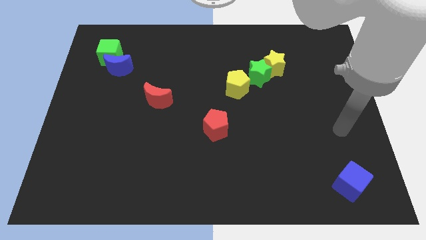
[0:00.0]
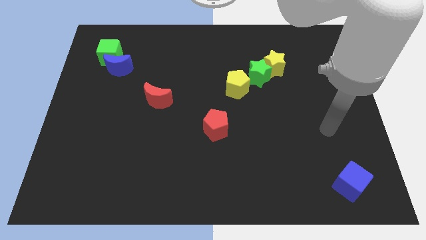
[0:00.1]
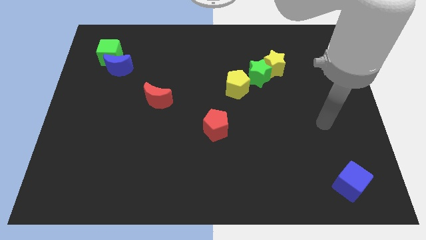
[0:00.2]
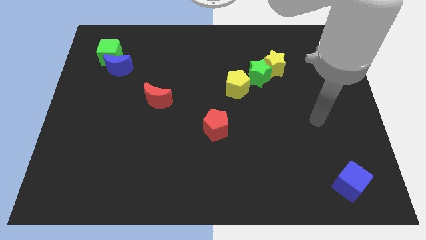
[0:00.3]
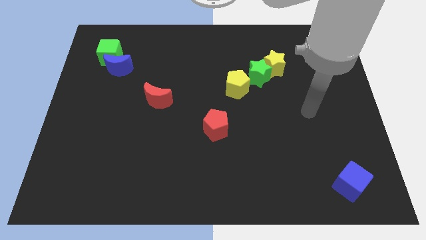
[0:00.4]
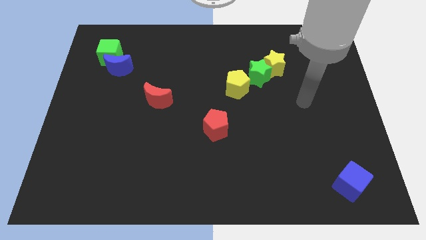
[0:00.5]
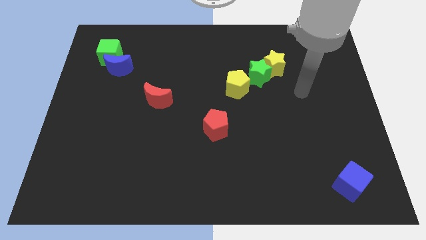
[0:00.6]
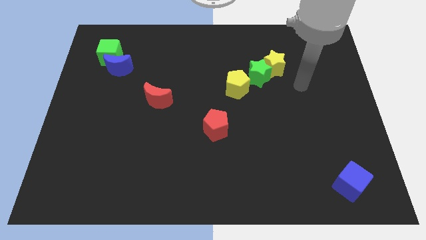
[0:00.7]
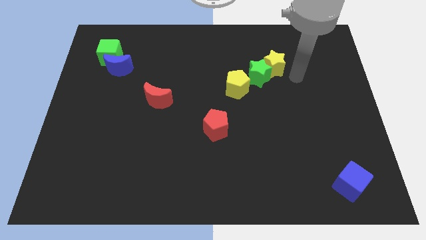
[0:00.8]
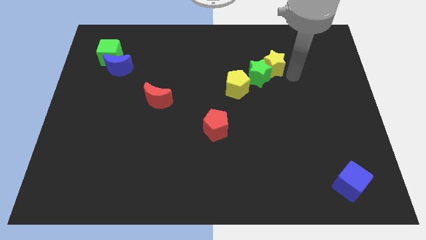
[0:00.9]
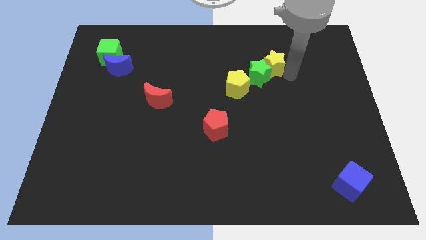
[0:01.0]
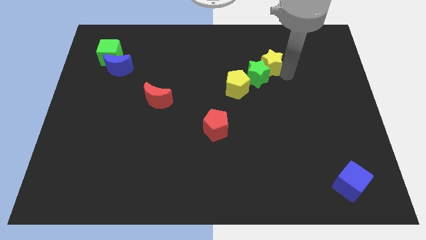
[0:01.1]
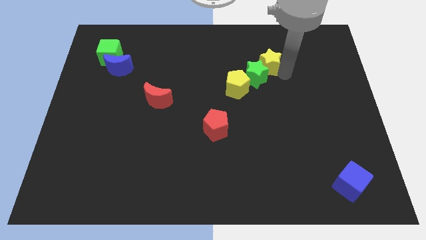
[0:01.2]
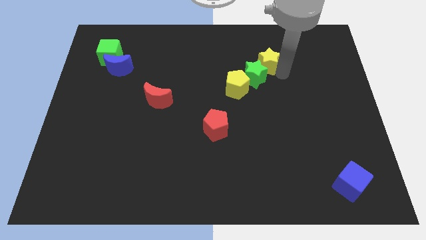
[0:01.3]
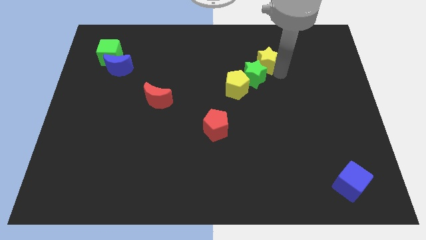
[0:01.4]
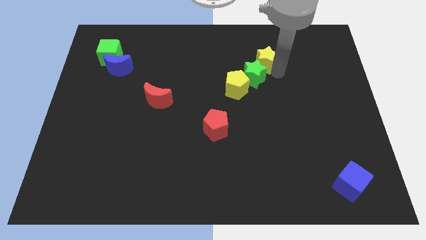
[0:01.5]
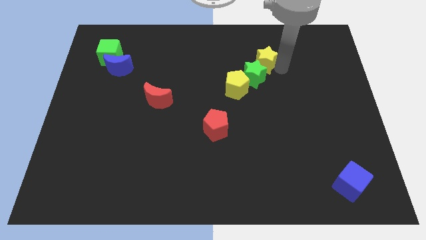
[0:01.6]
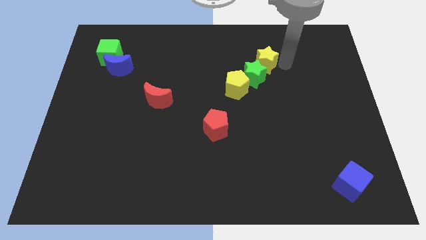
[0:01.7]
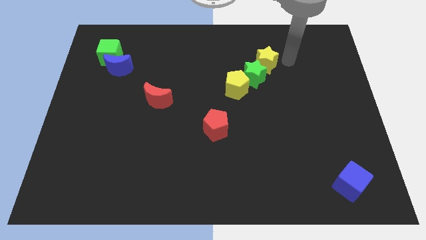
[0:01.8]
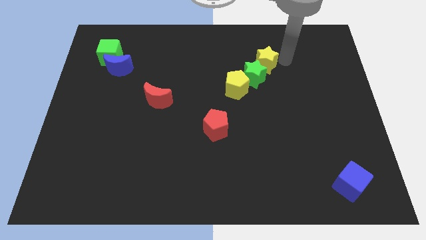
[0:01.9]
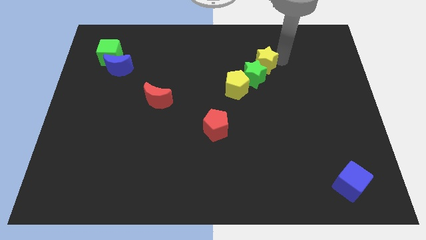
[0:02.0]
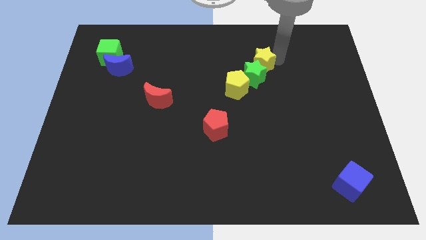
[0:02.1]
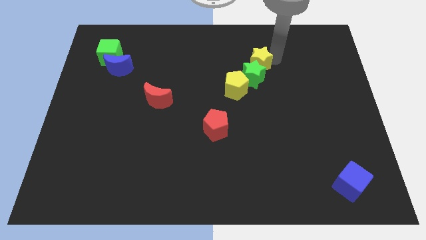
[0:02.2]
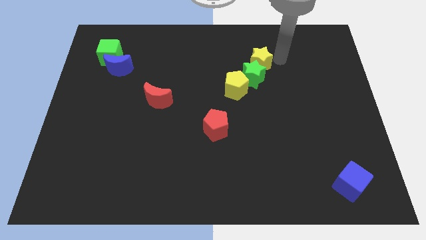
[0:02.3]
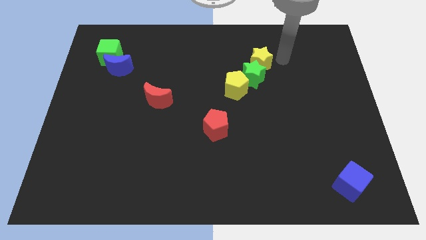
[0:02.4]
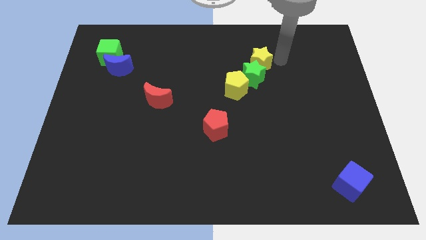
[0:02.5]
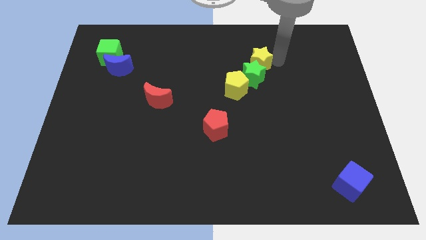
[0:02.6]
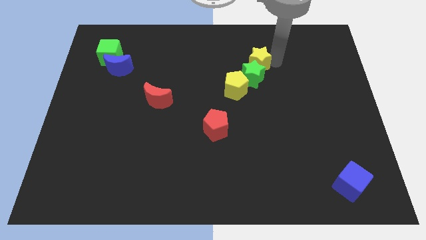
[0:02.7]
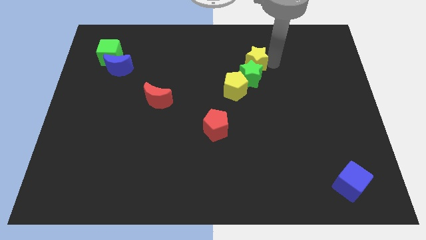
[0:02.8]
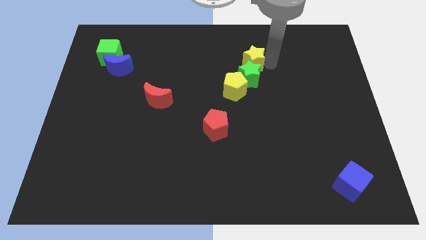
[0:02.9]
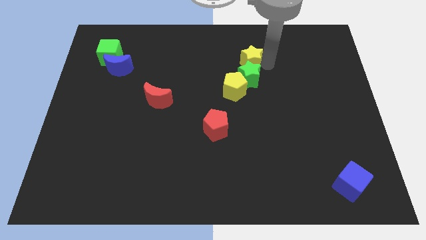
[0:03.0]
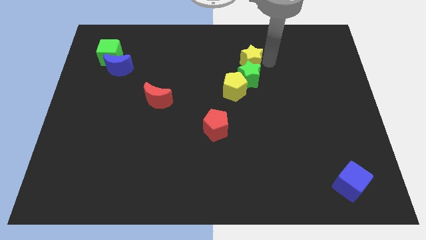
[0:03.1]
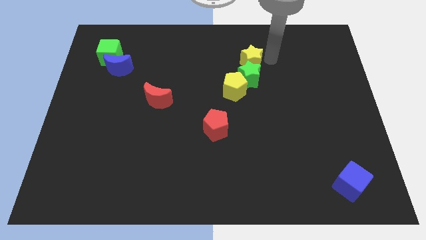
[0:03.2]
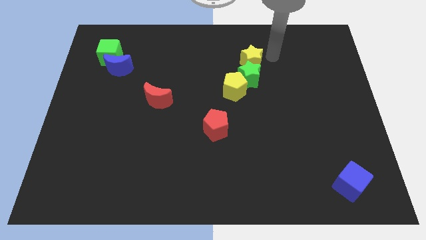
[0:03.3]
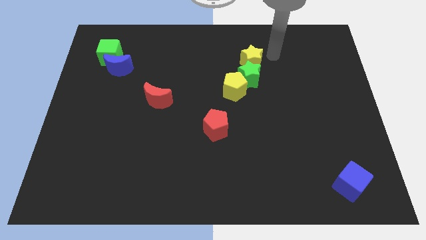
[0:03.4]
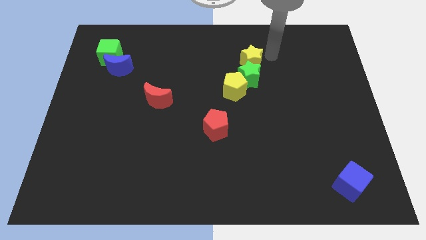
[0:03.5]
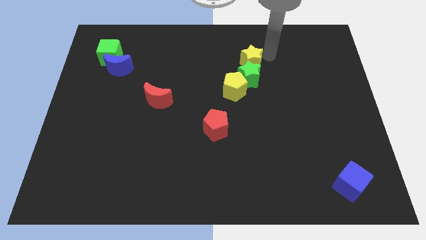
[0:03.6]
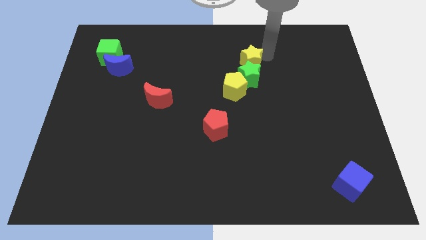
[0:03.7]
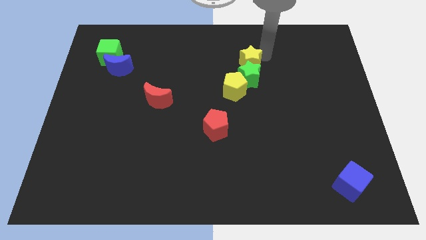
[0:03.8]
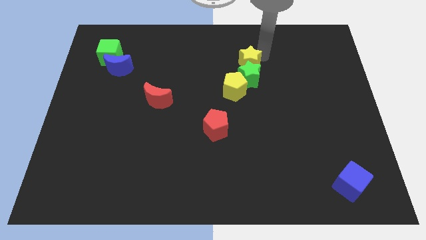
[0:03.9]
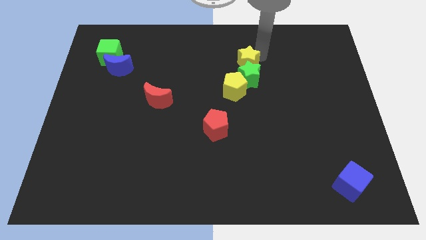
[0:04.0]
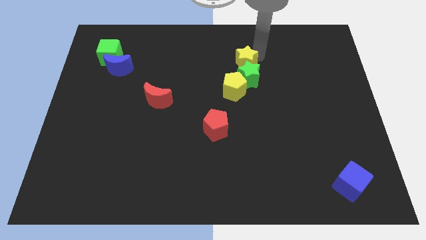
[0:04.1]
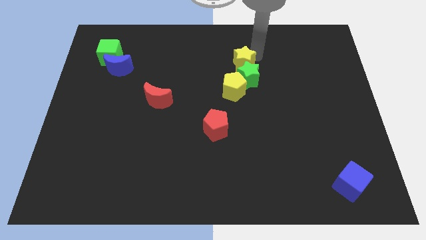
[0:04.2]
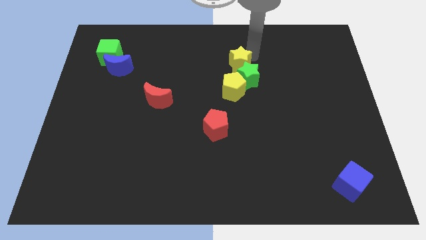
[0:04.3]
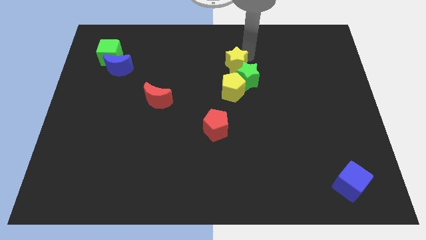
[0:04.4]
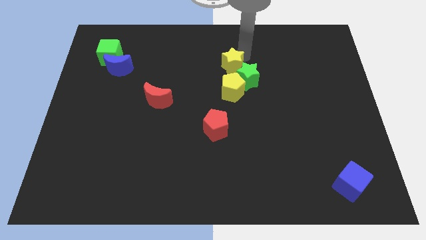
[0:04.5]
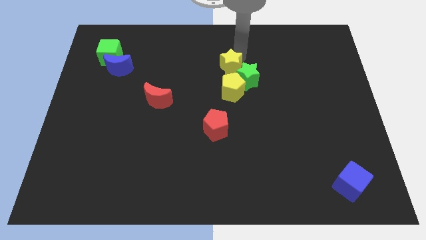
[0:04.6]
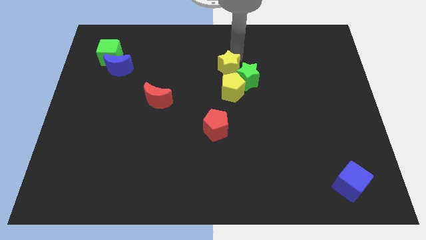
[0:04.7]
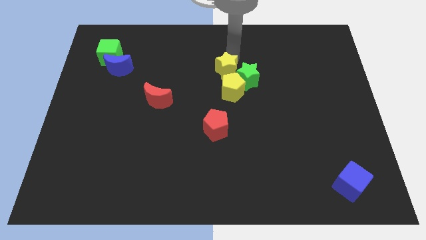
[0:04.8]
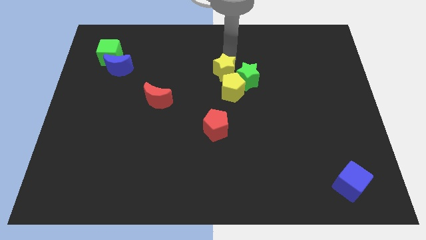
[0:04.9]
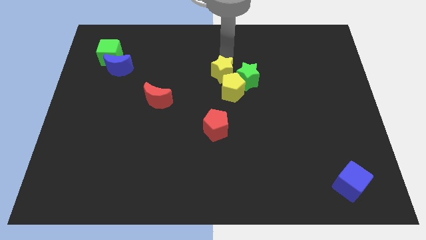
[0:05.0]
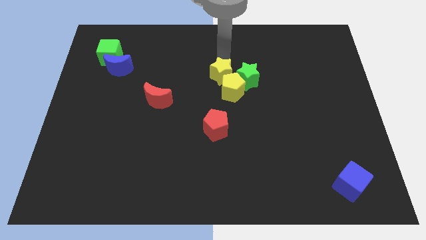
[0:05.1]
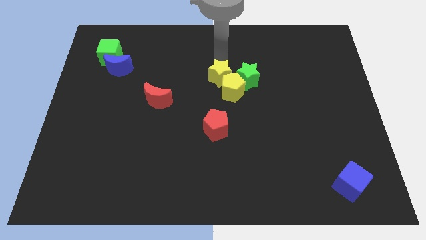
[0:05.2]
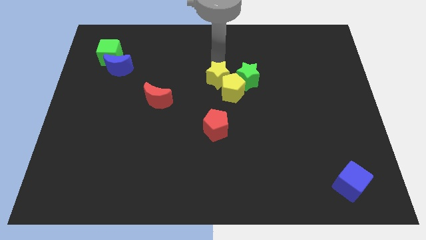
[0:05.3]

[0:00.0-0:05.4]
slide the yellow star to the left of the yellow pentagon

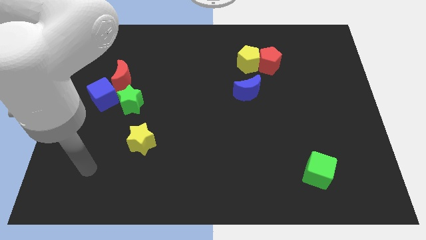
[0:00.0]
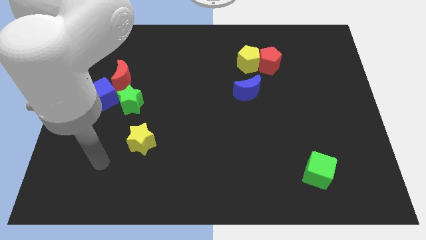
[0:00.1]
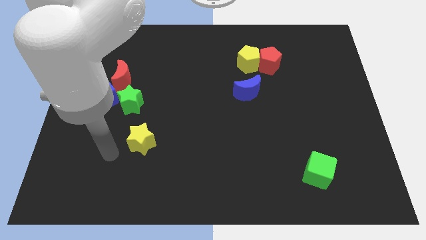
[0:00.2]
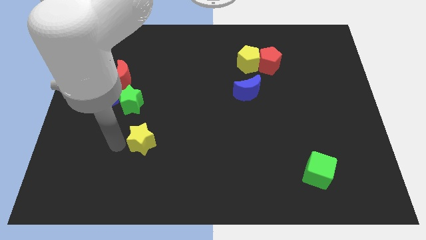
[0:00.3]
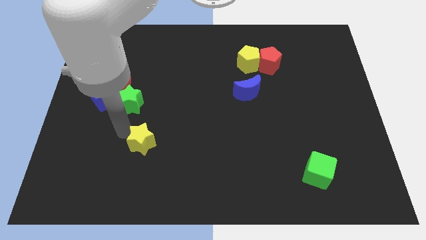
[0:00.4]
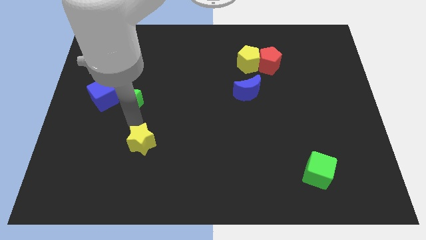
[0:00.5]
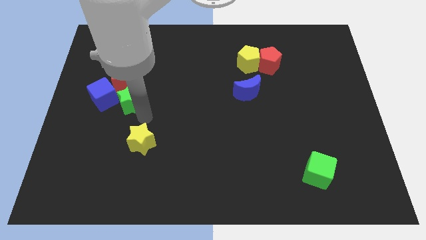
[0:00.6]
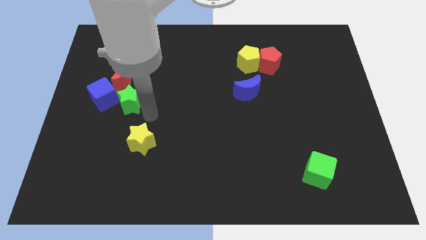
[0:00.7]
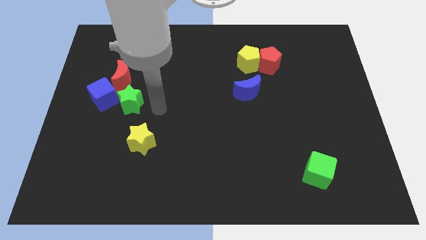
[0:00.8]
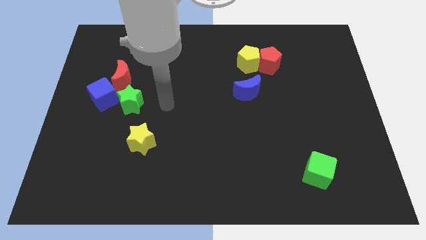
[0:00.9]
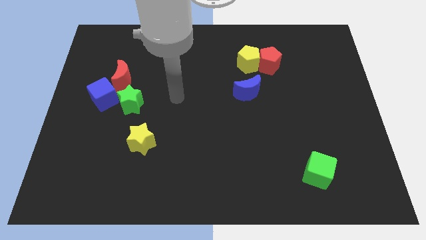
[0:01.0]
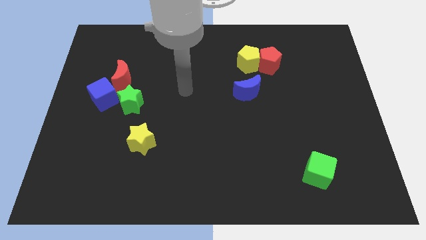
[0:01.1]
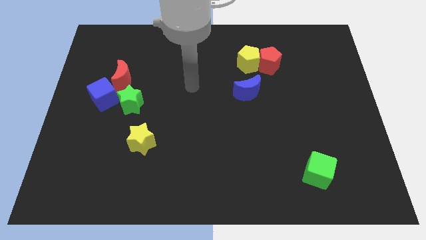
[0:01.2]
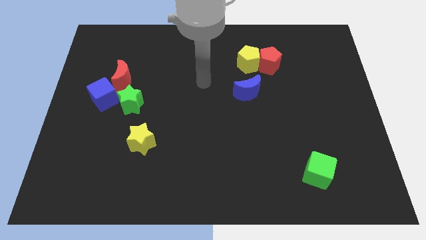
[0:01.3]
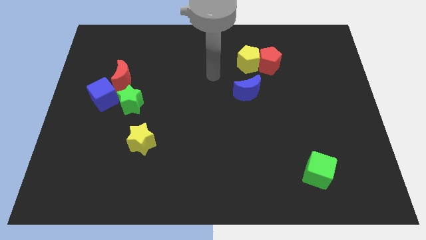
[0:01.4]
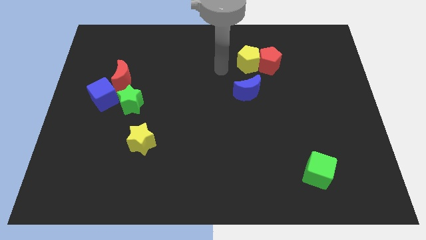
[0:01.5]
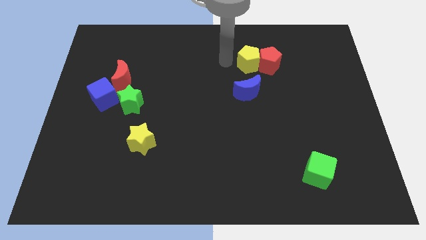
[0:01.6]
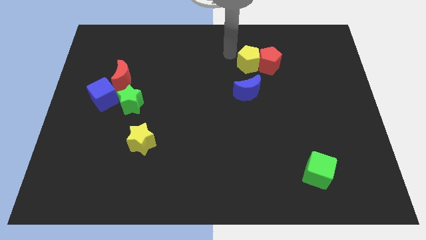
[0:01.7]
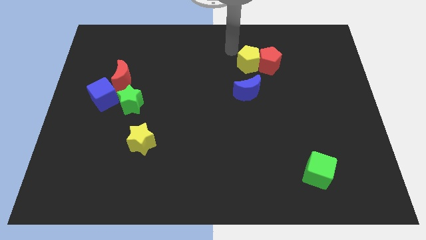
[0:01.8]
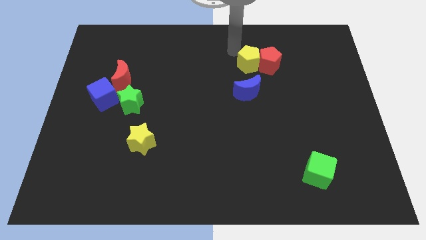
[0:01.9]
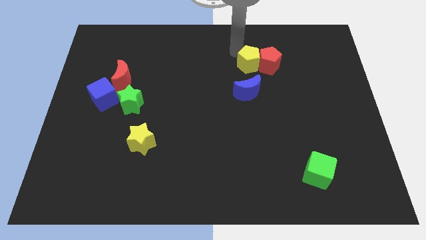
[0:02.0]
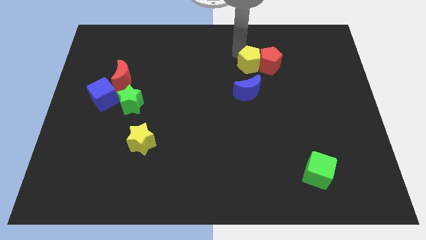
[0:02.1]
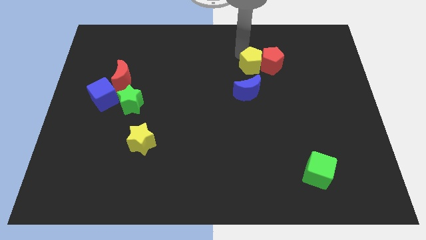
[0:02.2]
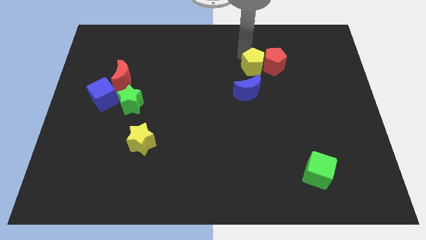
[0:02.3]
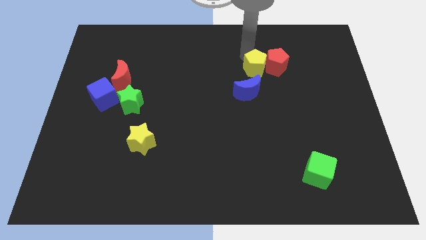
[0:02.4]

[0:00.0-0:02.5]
put the yellow pentagon to the top right of the blue moon

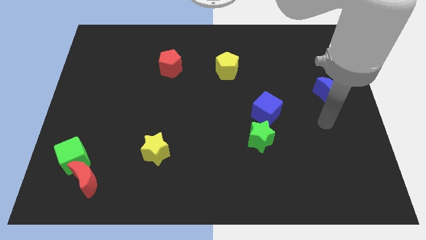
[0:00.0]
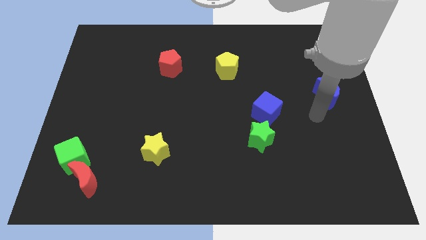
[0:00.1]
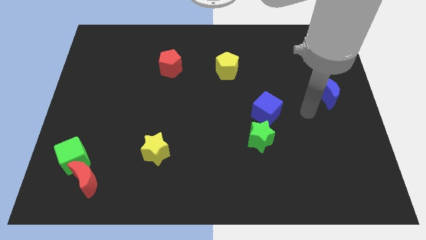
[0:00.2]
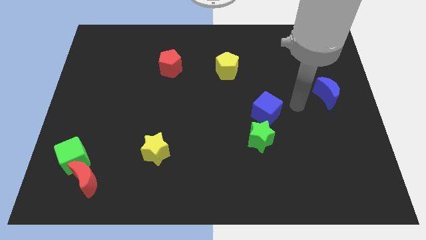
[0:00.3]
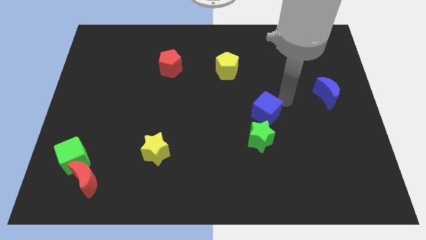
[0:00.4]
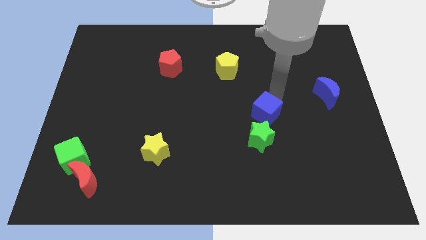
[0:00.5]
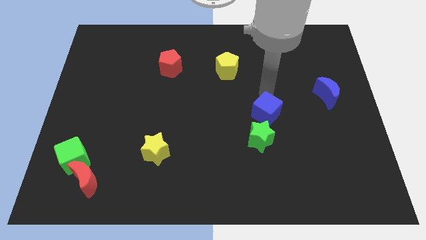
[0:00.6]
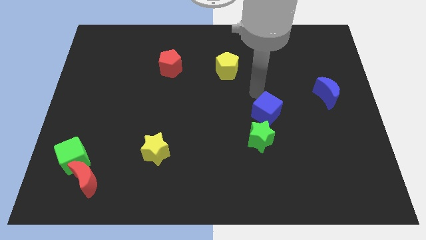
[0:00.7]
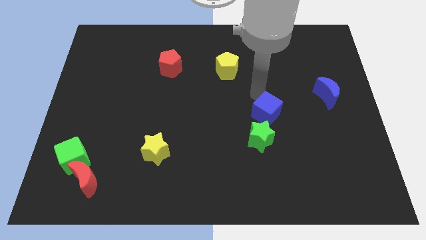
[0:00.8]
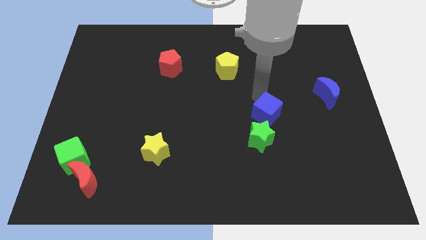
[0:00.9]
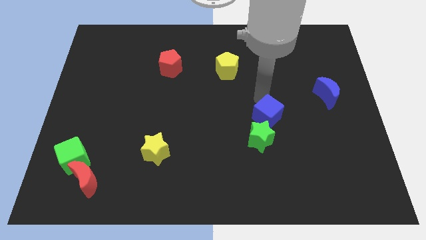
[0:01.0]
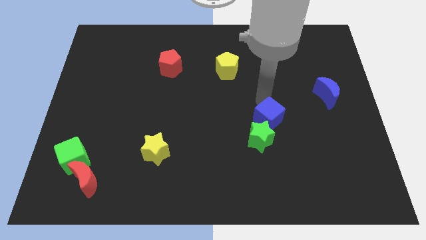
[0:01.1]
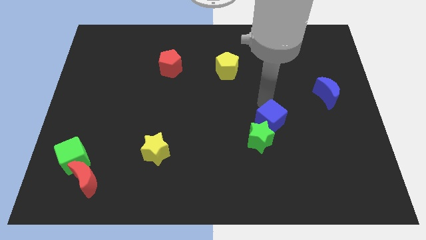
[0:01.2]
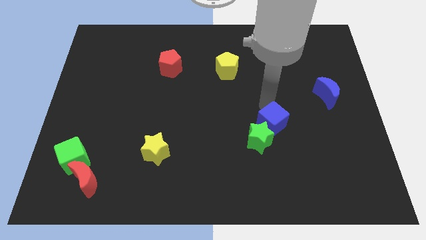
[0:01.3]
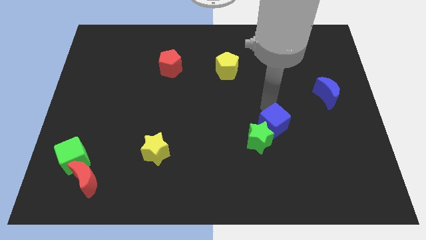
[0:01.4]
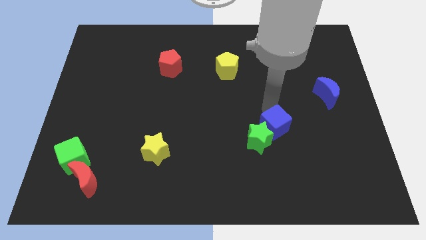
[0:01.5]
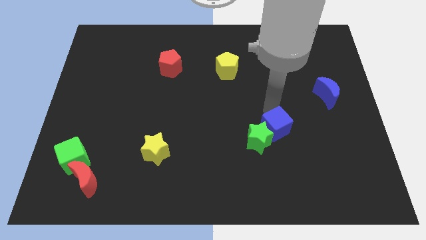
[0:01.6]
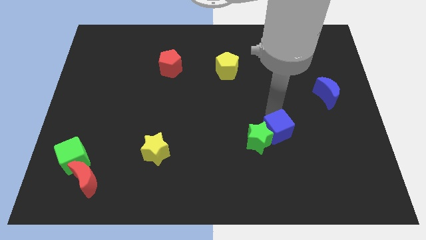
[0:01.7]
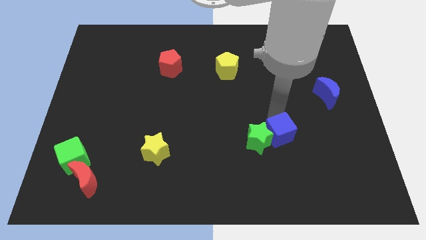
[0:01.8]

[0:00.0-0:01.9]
move the blue cube to the bottom right of the green star
